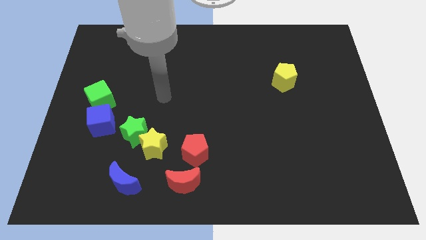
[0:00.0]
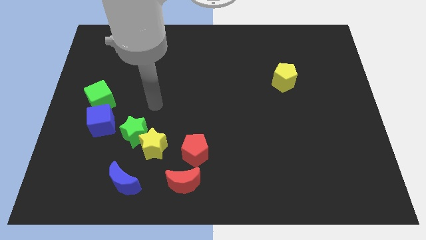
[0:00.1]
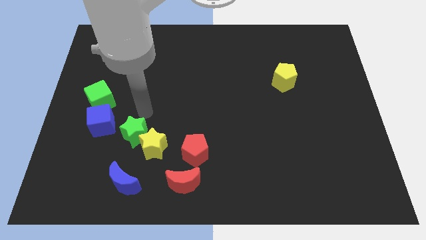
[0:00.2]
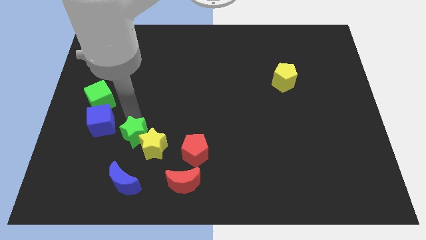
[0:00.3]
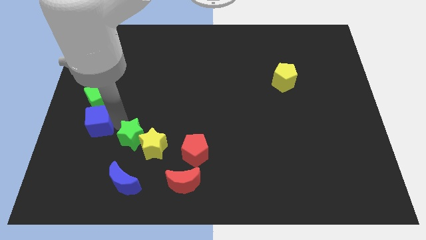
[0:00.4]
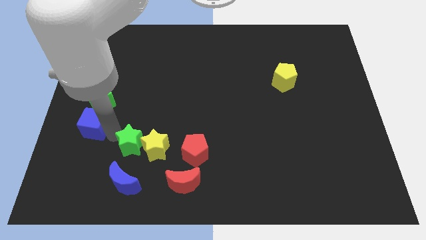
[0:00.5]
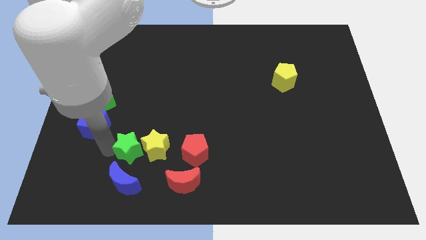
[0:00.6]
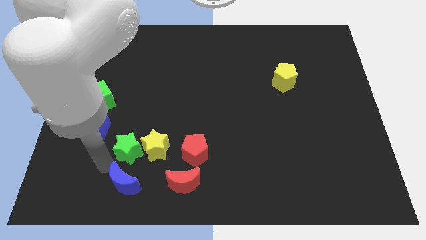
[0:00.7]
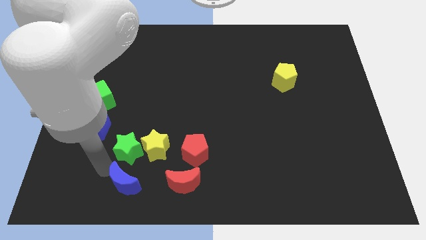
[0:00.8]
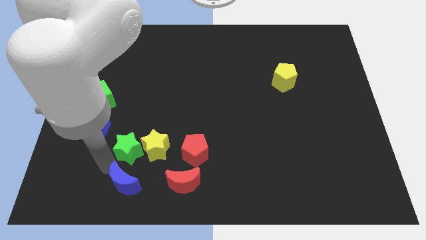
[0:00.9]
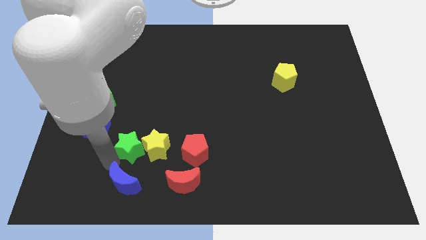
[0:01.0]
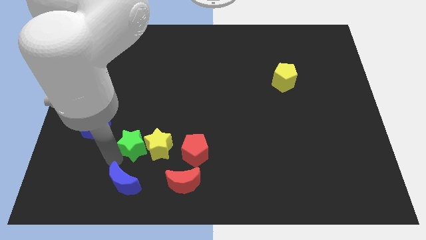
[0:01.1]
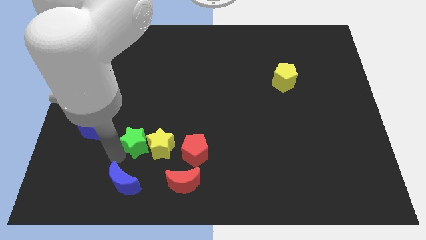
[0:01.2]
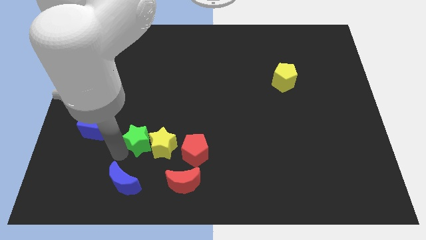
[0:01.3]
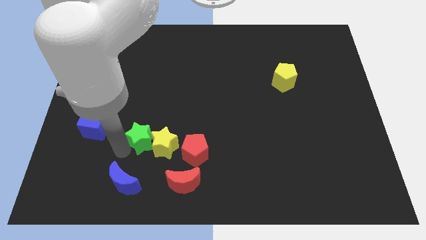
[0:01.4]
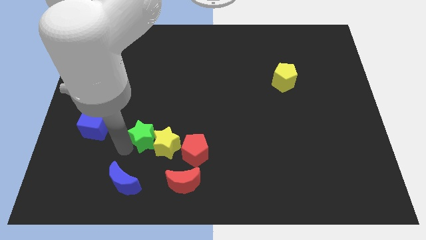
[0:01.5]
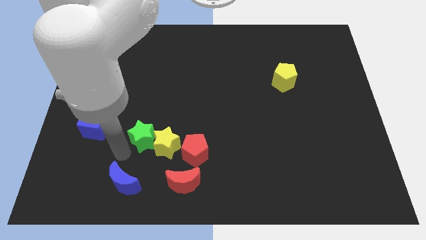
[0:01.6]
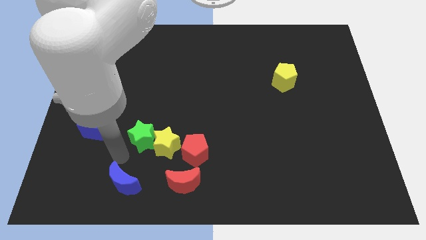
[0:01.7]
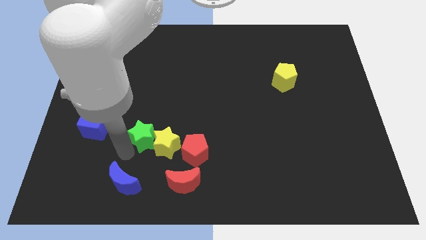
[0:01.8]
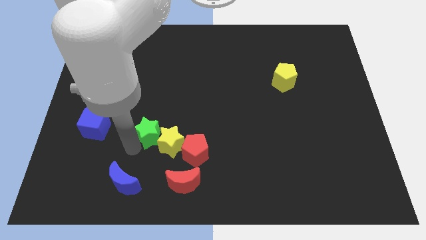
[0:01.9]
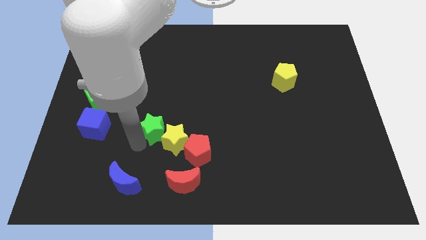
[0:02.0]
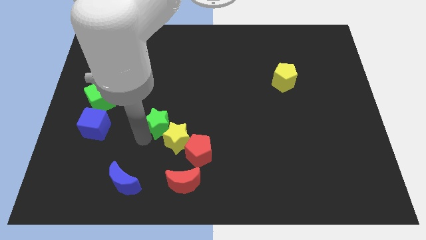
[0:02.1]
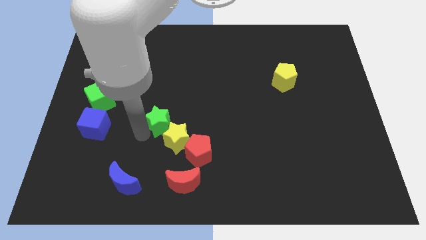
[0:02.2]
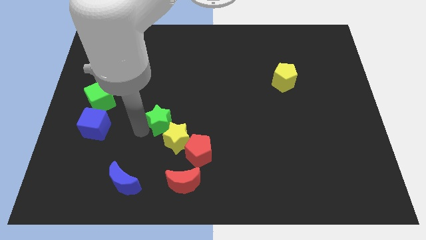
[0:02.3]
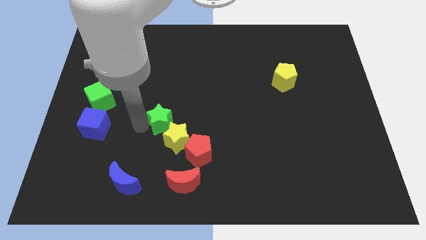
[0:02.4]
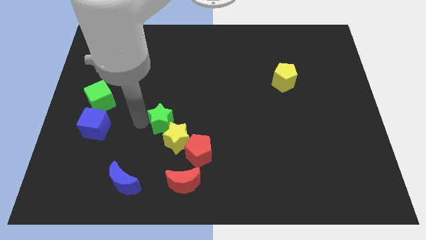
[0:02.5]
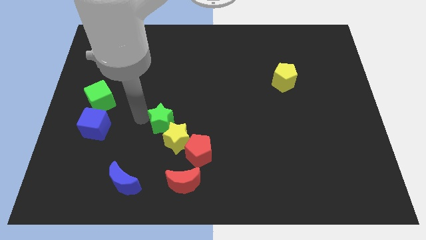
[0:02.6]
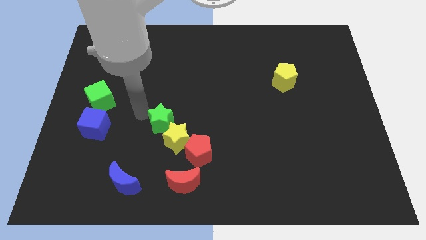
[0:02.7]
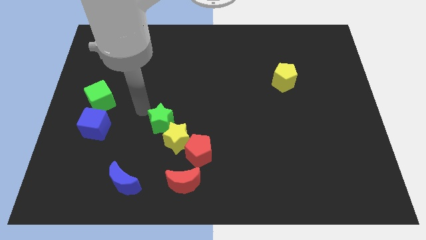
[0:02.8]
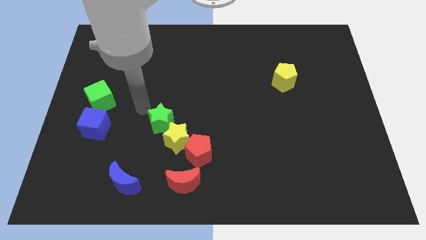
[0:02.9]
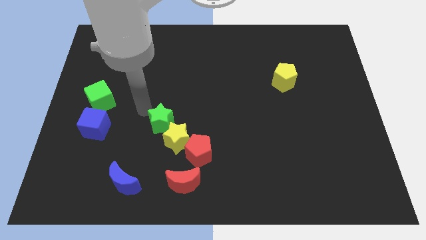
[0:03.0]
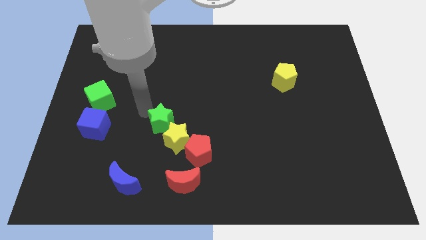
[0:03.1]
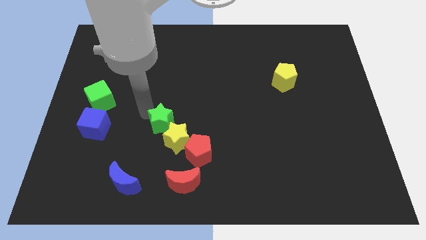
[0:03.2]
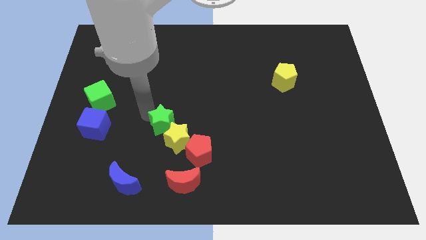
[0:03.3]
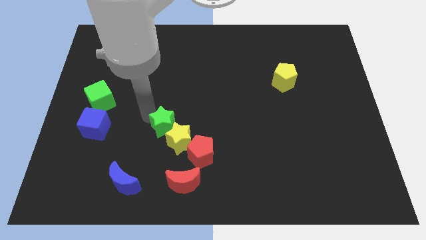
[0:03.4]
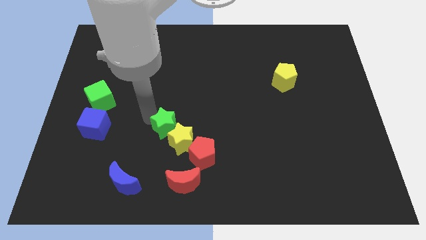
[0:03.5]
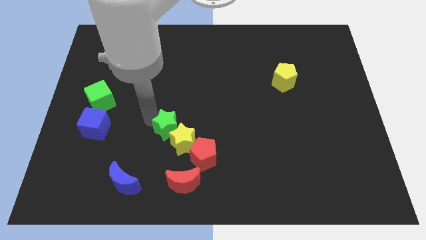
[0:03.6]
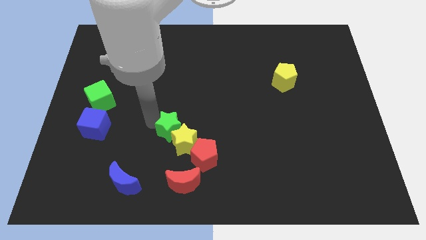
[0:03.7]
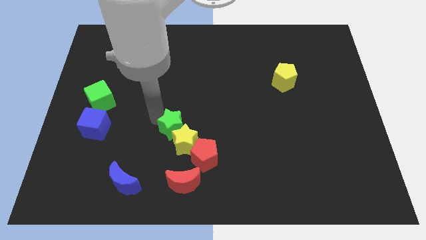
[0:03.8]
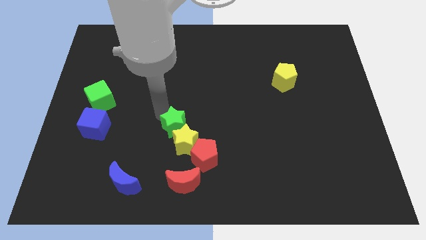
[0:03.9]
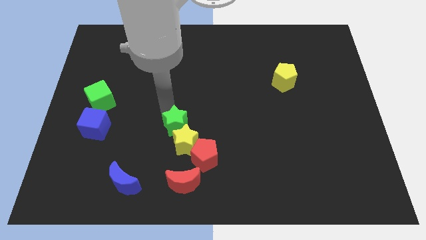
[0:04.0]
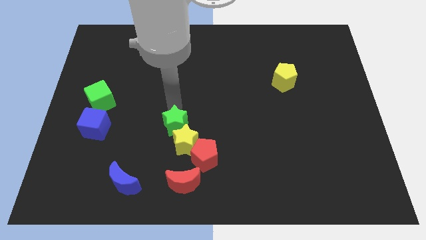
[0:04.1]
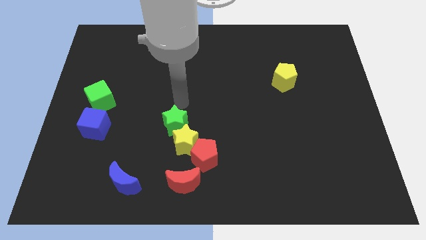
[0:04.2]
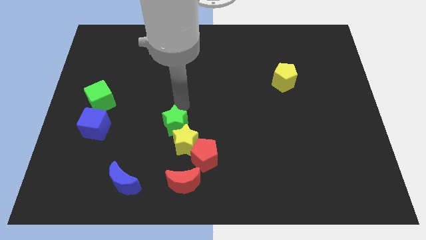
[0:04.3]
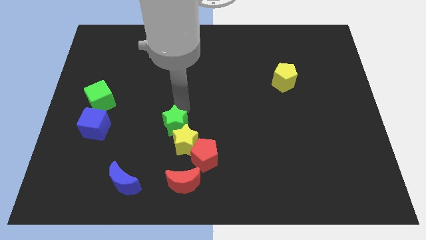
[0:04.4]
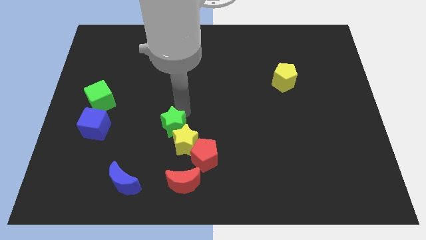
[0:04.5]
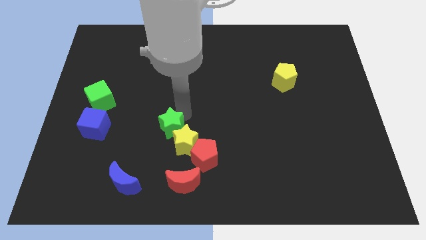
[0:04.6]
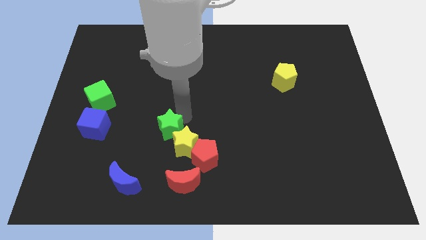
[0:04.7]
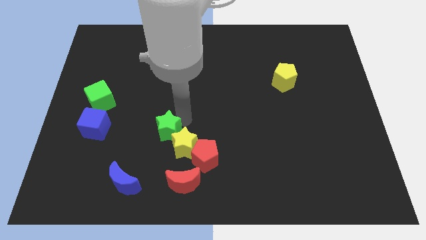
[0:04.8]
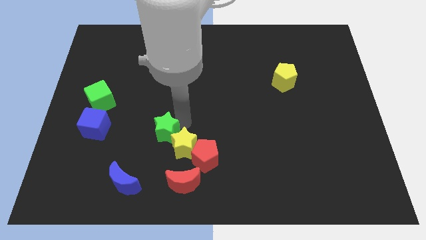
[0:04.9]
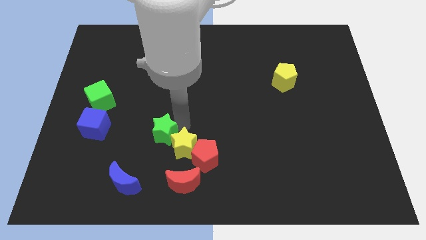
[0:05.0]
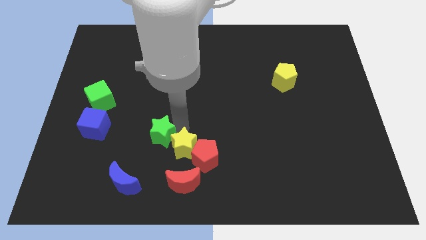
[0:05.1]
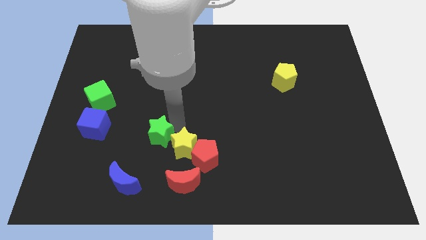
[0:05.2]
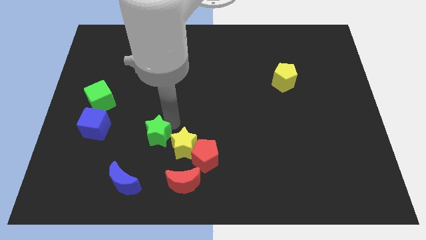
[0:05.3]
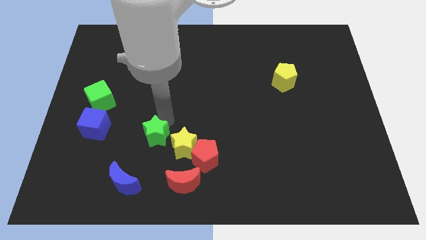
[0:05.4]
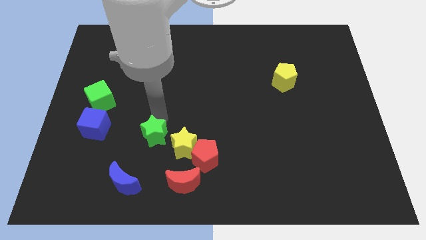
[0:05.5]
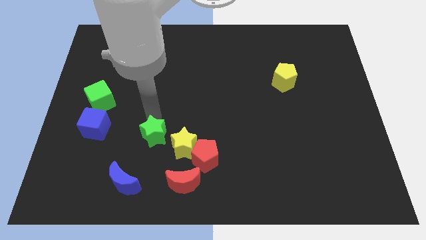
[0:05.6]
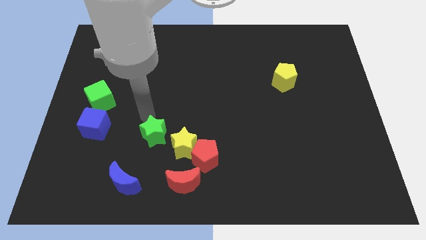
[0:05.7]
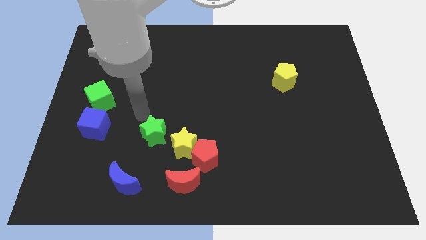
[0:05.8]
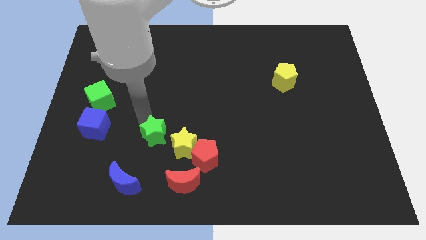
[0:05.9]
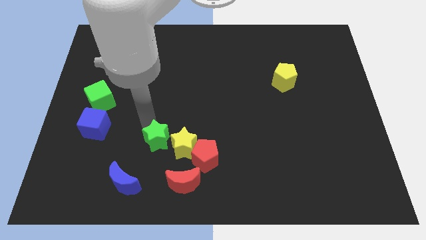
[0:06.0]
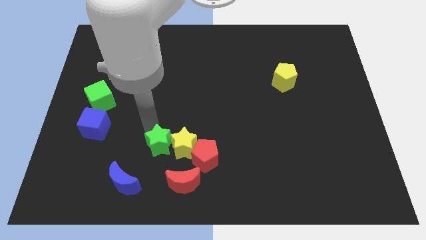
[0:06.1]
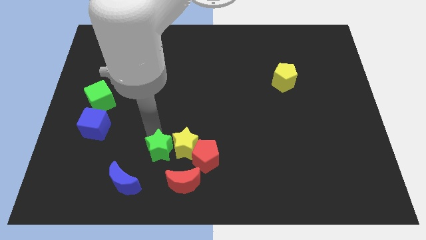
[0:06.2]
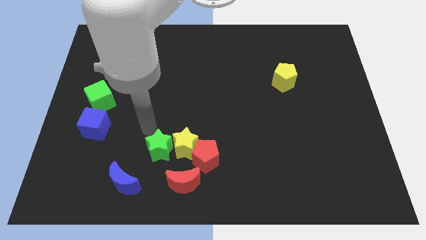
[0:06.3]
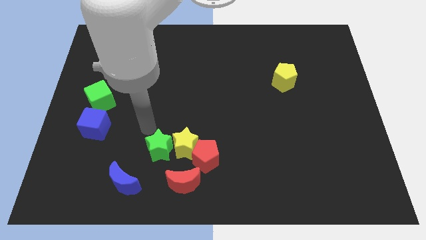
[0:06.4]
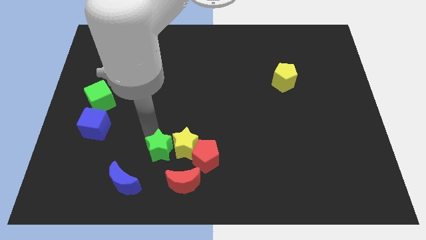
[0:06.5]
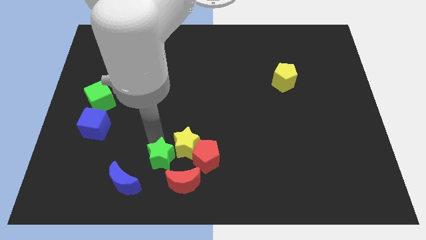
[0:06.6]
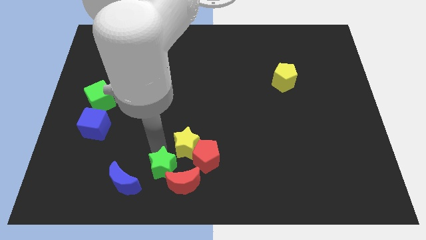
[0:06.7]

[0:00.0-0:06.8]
slide the green star close to the red moon
